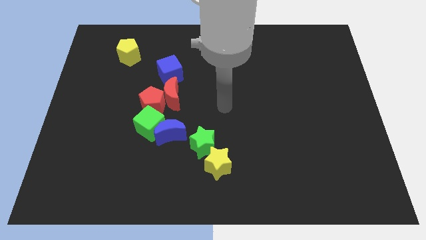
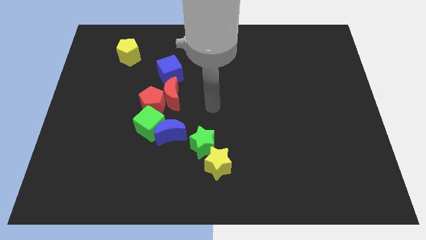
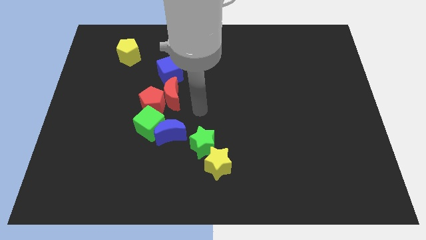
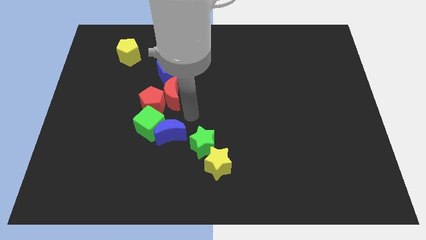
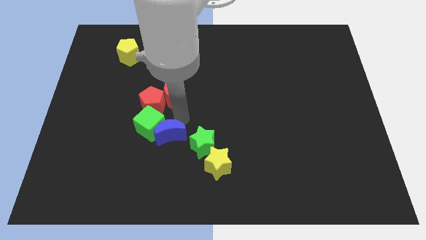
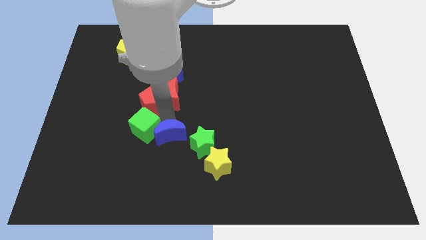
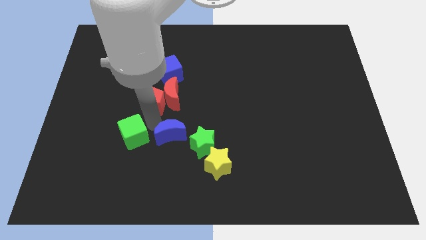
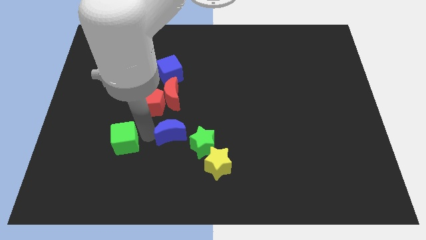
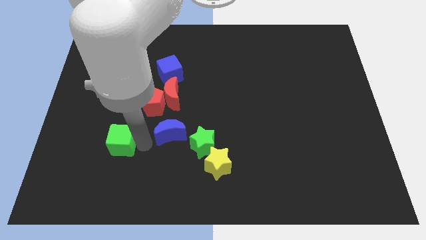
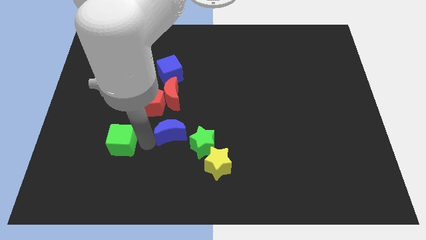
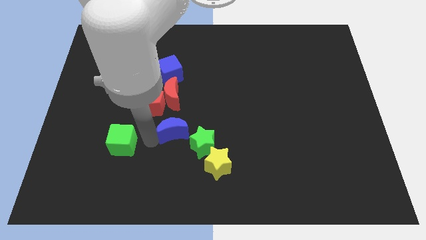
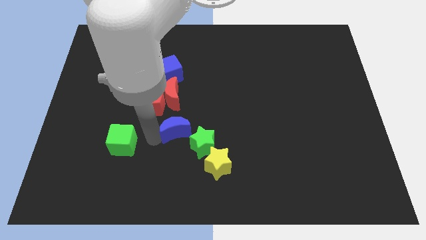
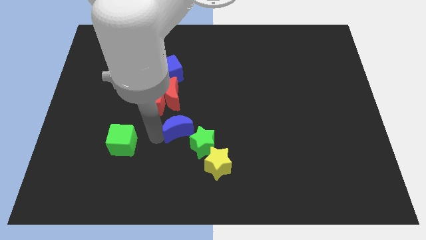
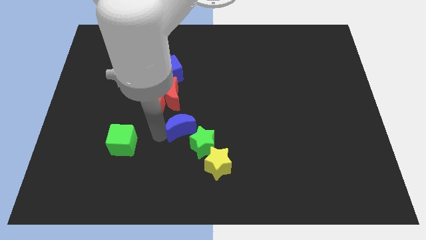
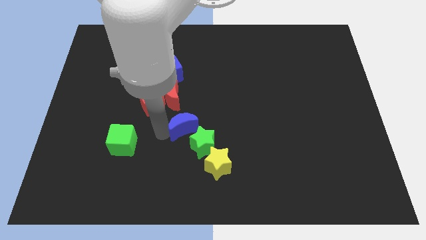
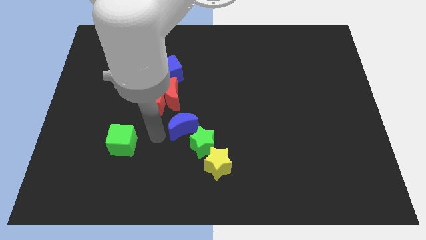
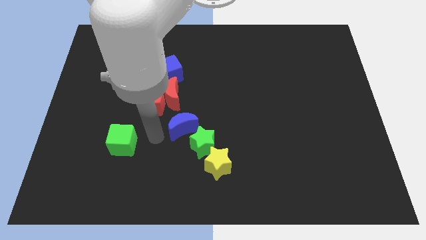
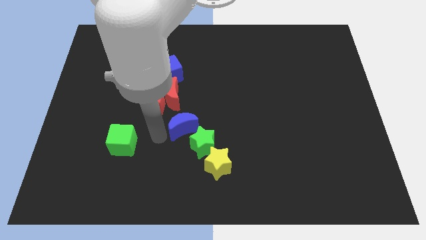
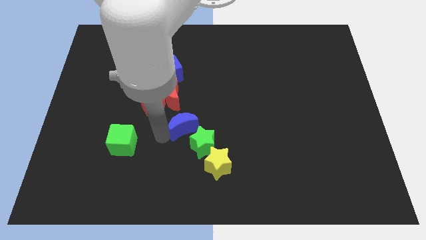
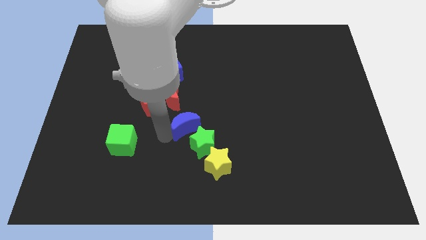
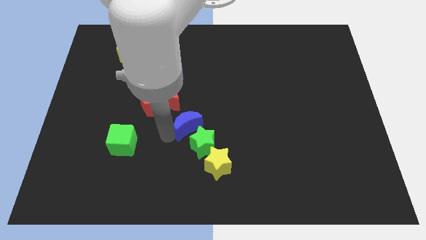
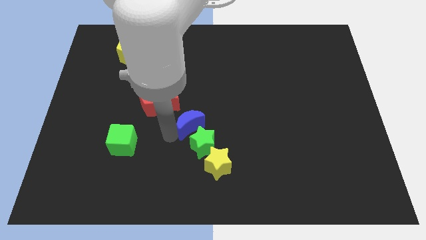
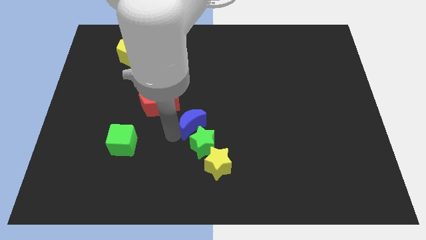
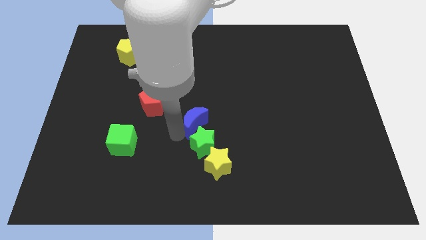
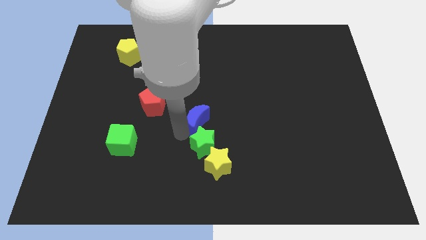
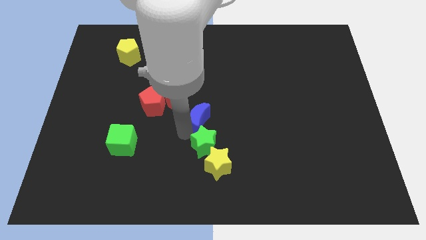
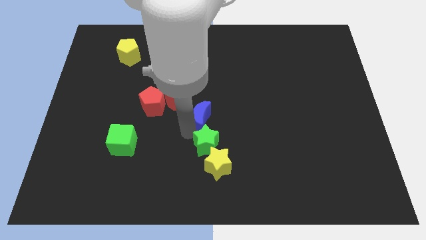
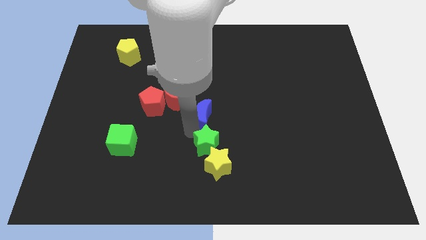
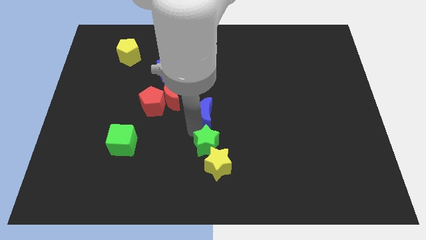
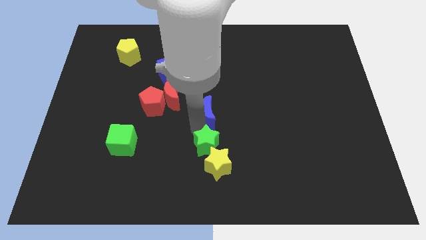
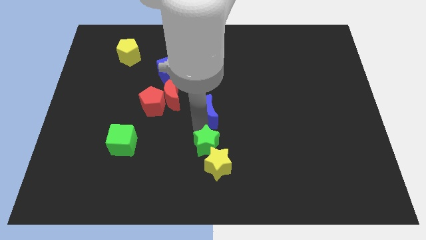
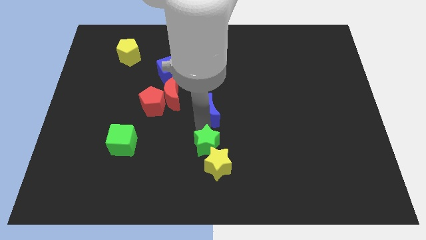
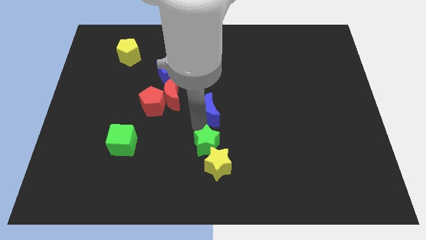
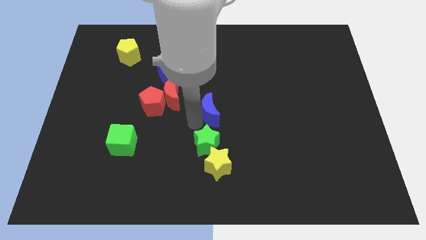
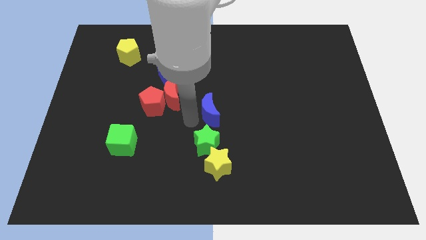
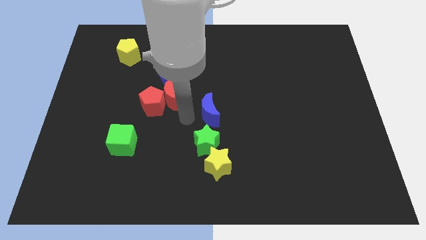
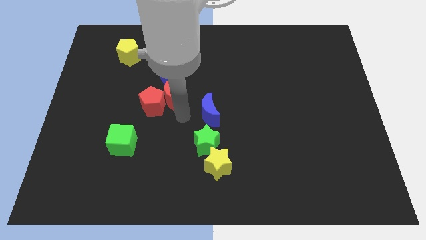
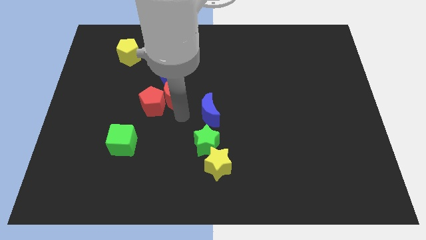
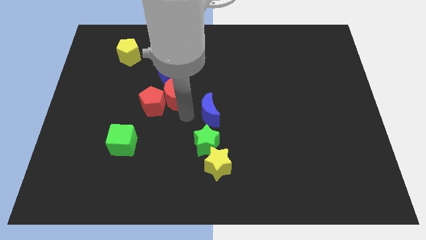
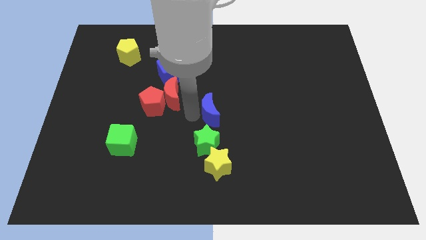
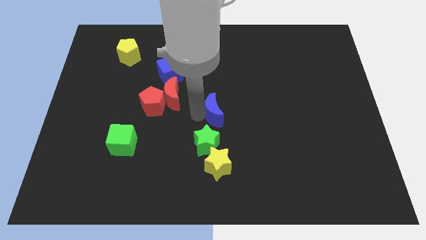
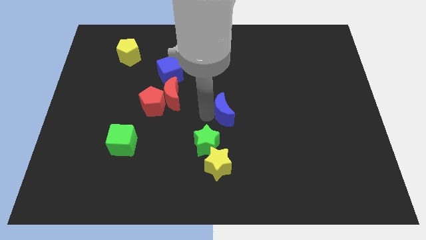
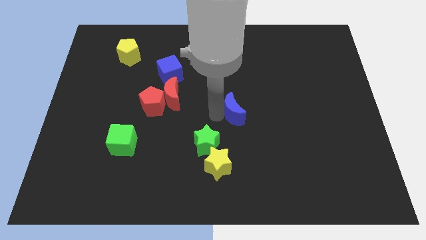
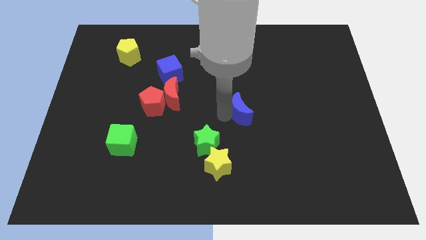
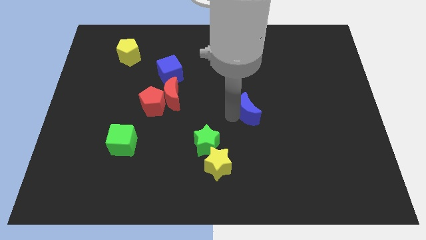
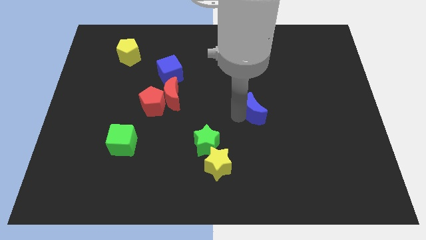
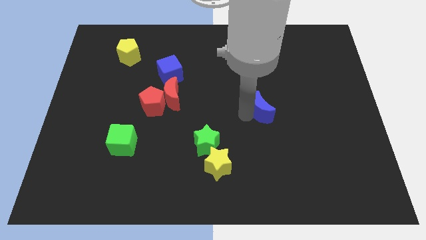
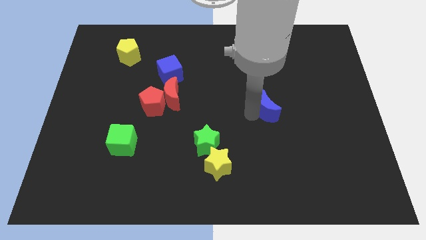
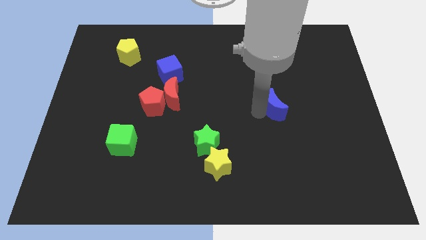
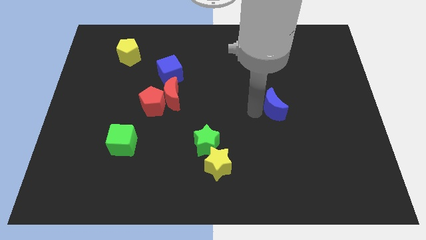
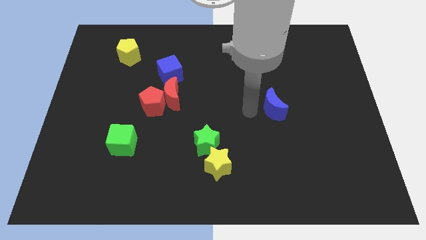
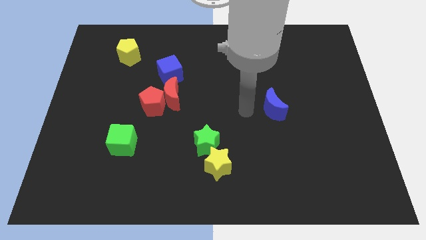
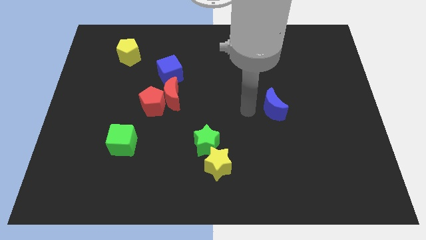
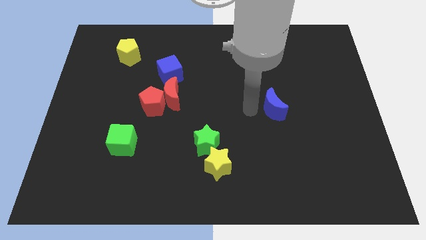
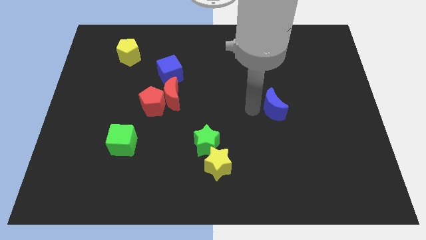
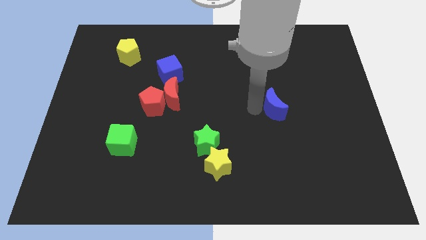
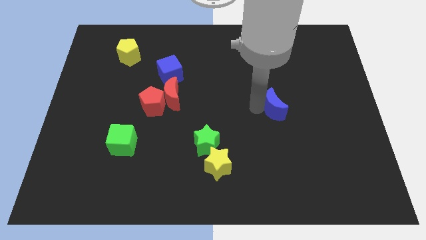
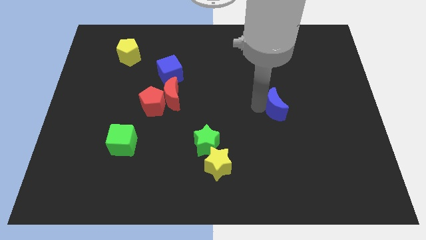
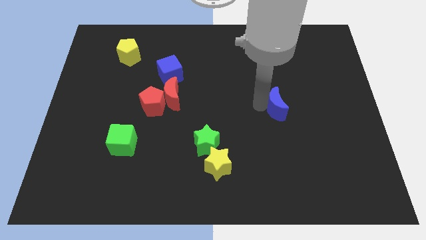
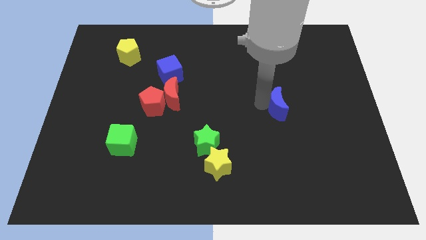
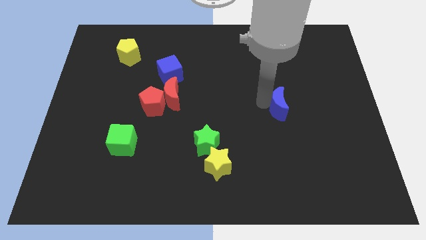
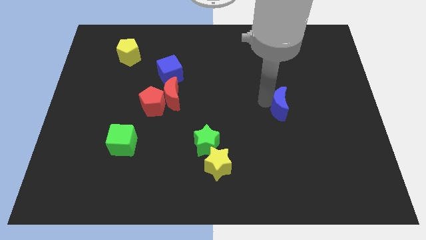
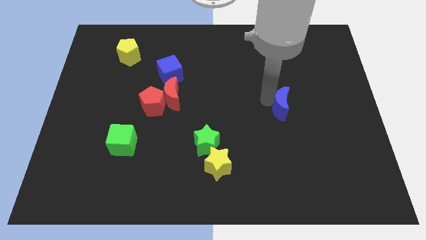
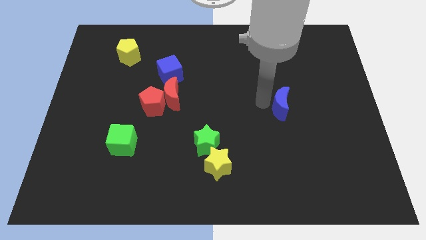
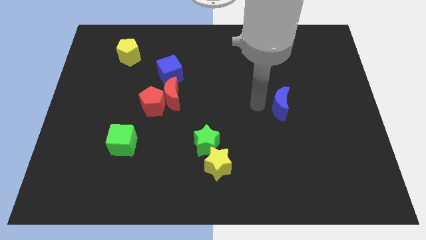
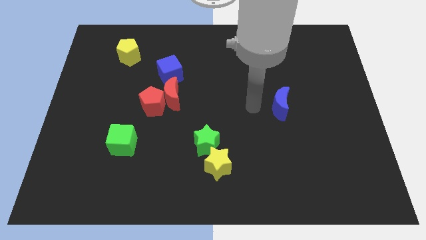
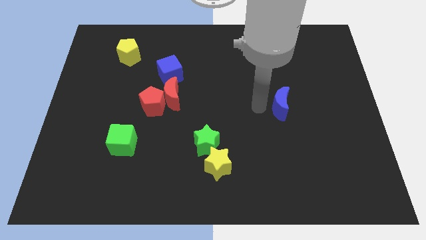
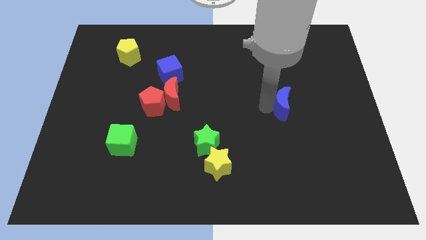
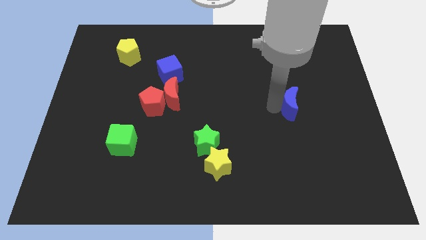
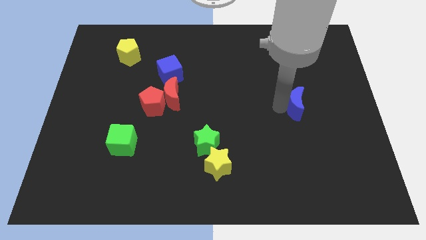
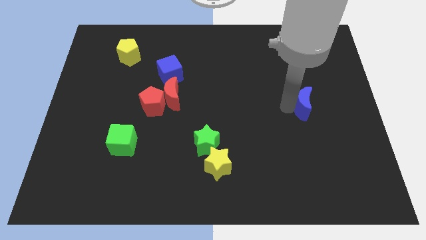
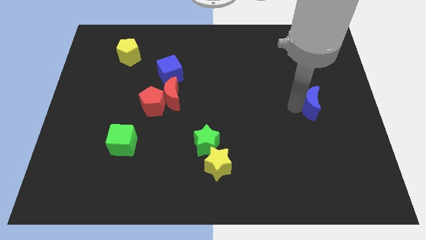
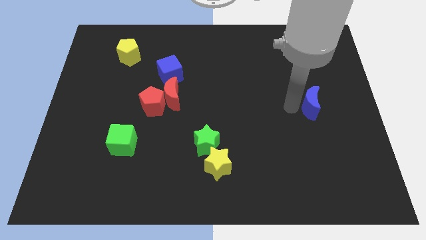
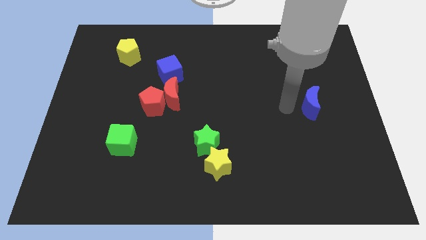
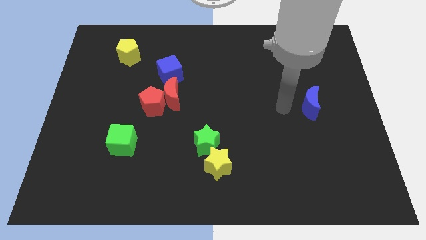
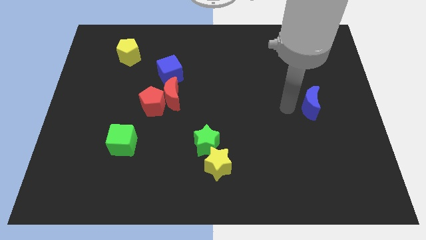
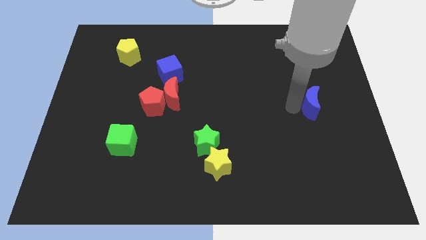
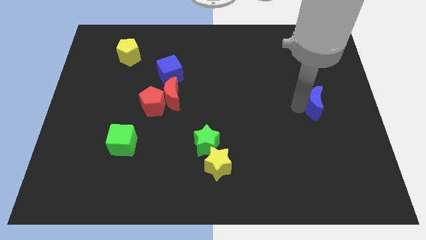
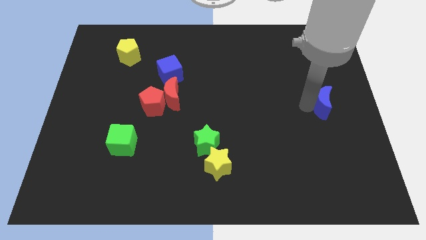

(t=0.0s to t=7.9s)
put the blue moon to the center right
